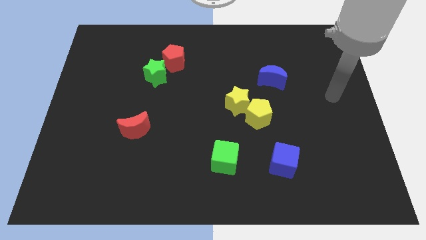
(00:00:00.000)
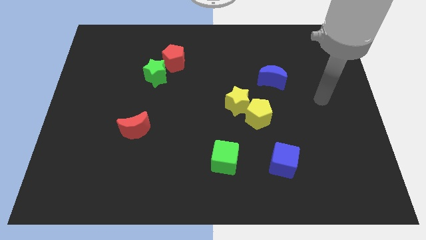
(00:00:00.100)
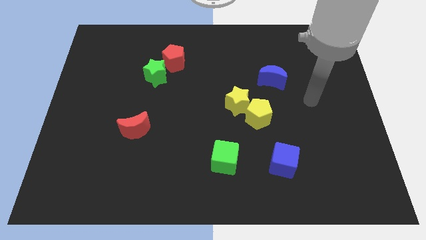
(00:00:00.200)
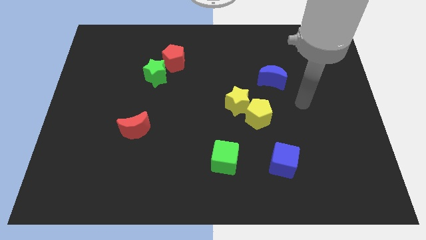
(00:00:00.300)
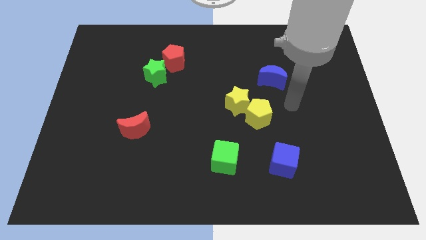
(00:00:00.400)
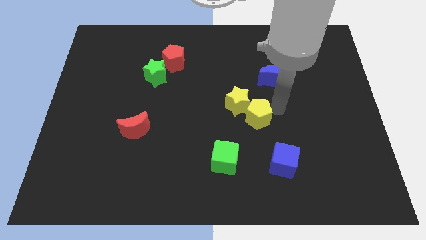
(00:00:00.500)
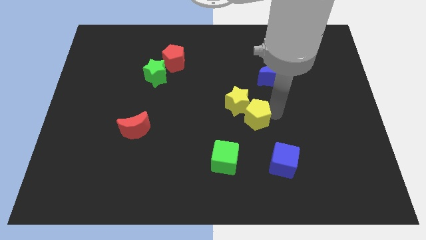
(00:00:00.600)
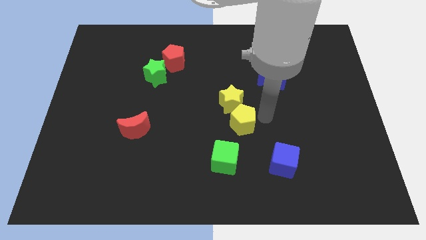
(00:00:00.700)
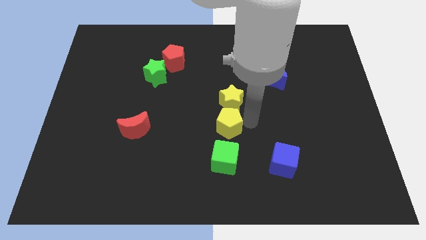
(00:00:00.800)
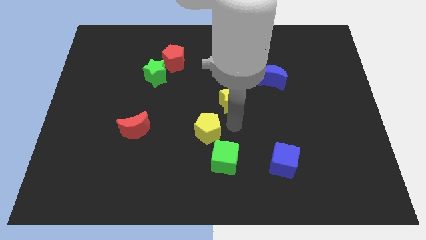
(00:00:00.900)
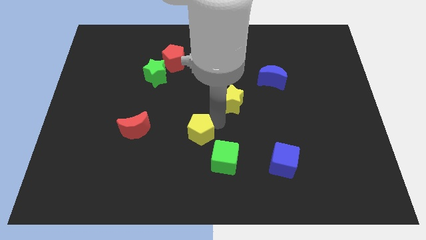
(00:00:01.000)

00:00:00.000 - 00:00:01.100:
separate the yellow star from the yellow pentagon

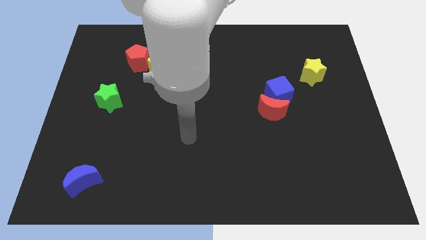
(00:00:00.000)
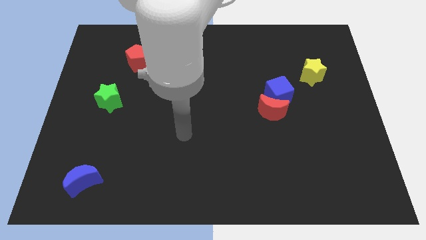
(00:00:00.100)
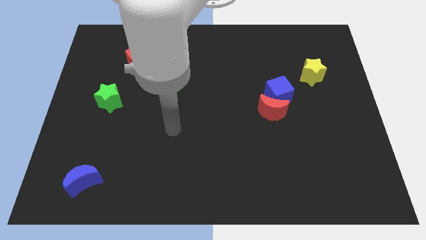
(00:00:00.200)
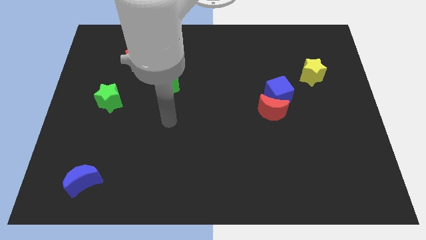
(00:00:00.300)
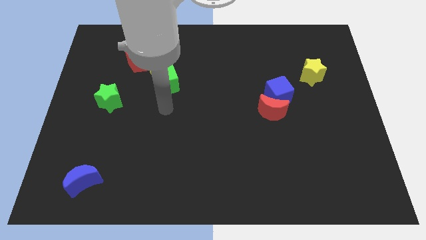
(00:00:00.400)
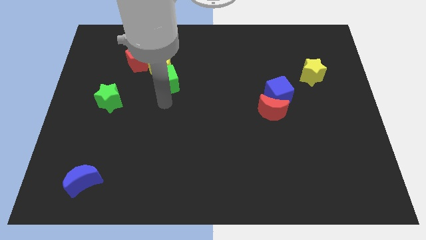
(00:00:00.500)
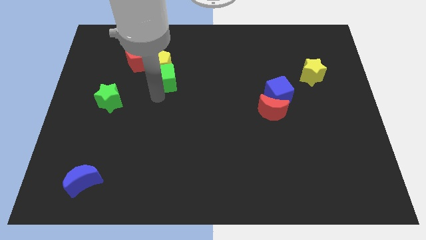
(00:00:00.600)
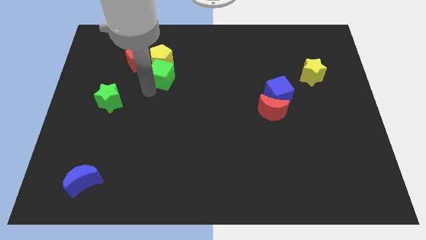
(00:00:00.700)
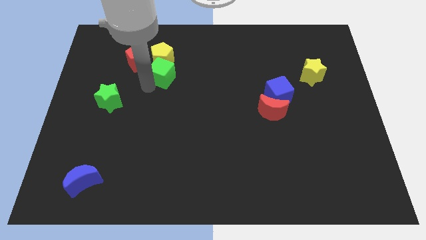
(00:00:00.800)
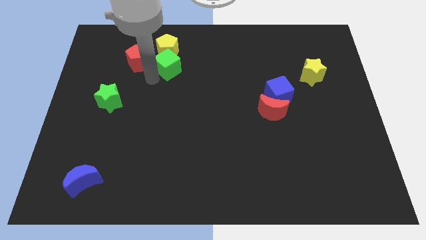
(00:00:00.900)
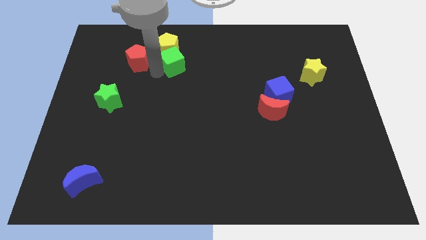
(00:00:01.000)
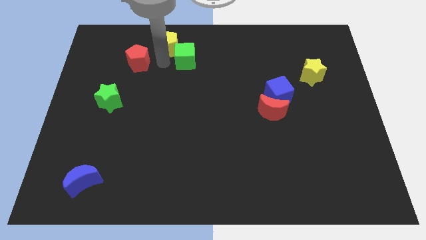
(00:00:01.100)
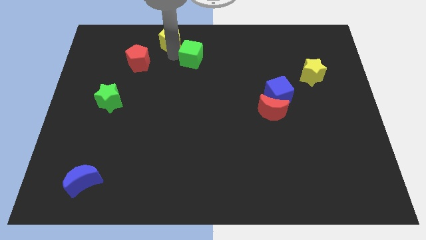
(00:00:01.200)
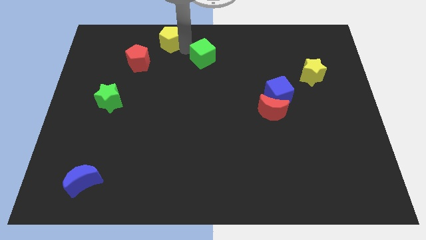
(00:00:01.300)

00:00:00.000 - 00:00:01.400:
separate the green cube from the yellow pentagon

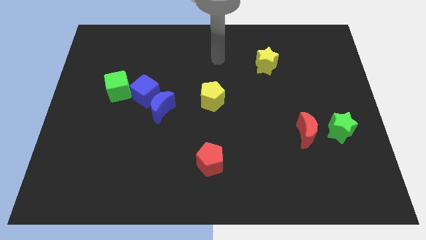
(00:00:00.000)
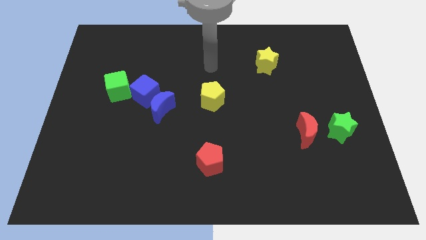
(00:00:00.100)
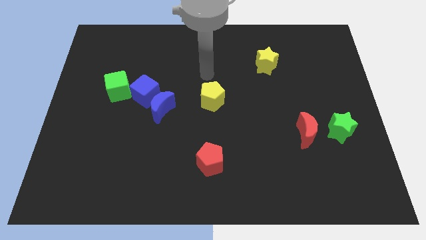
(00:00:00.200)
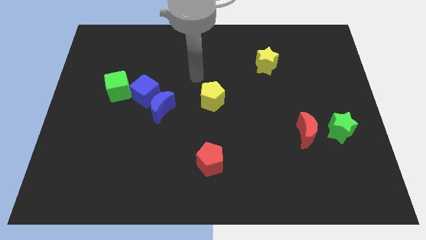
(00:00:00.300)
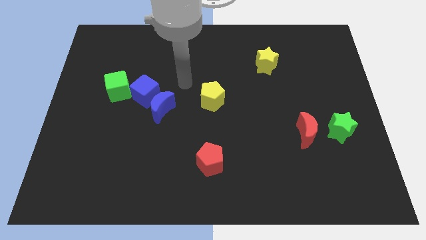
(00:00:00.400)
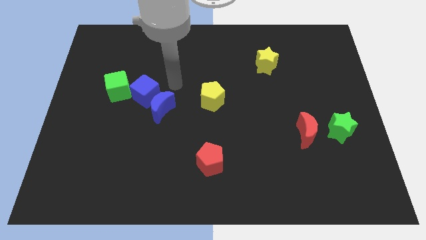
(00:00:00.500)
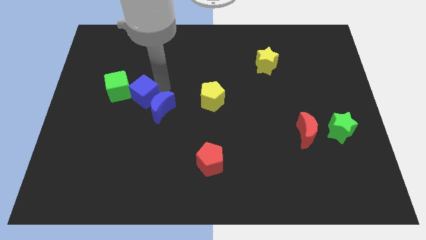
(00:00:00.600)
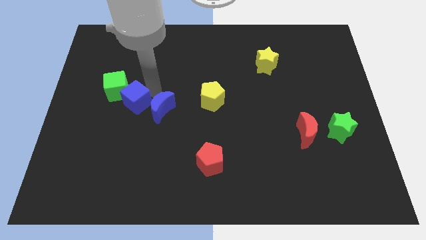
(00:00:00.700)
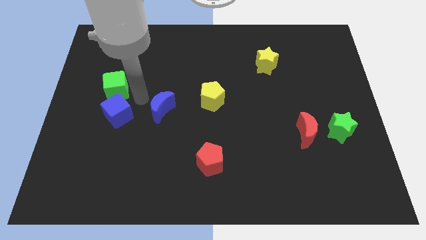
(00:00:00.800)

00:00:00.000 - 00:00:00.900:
move the blue moon away from the blue cube

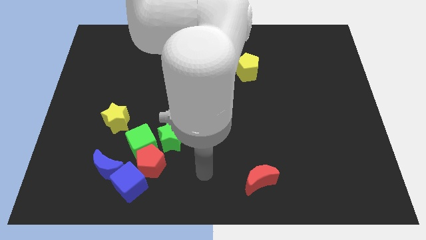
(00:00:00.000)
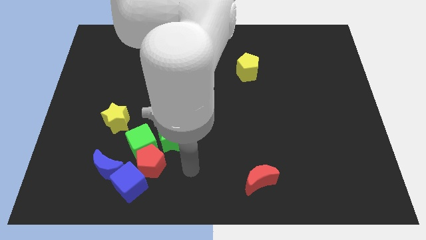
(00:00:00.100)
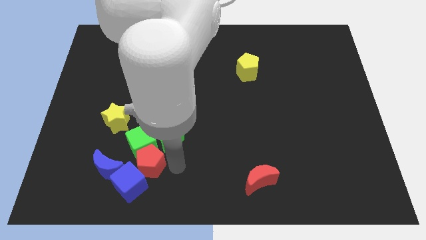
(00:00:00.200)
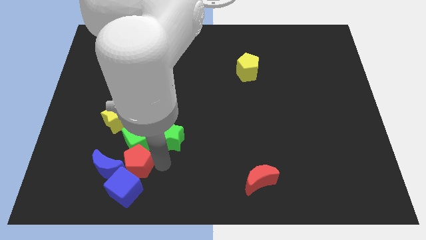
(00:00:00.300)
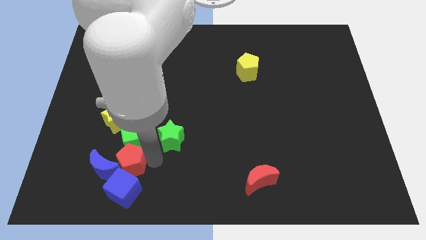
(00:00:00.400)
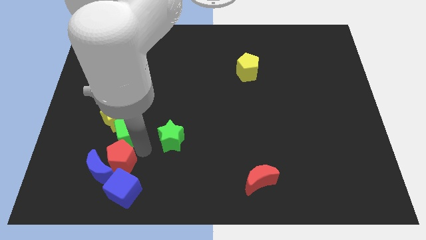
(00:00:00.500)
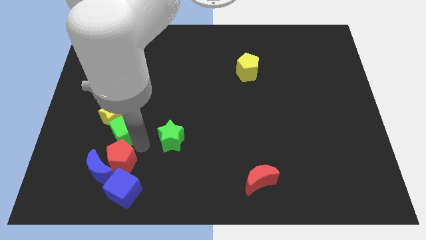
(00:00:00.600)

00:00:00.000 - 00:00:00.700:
separate the green star from the green cube and red pentagon

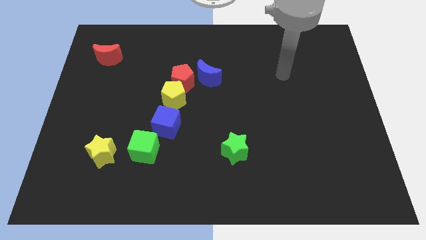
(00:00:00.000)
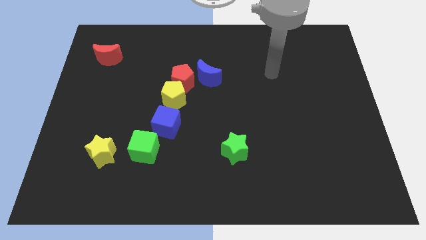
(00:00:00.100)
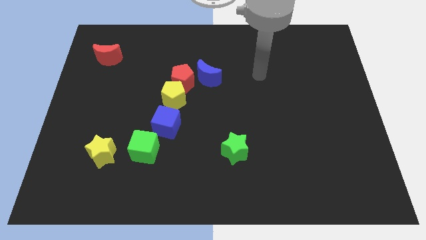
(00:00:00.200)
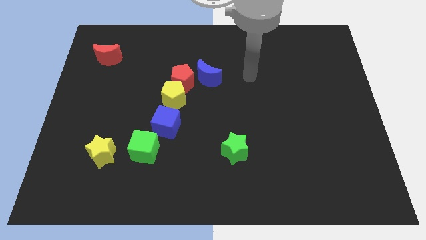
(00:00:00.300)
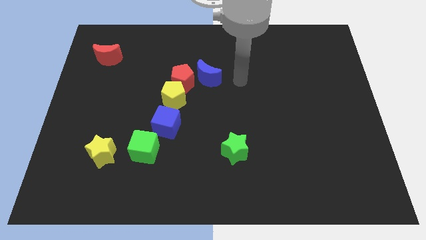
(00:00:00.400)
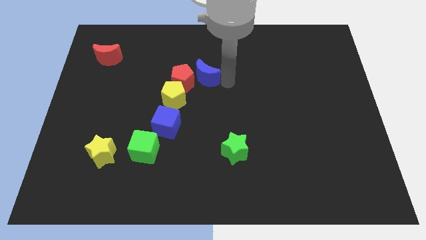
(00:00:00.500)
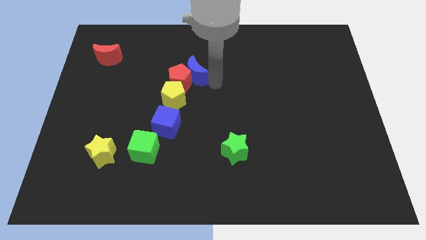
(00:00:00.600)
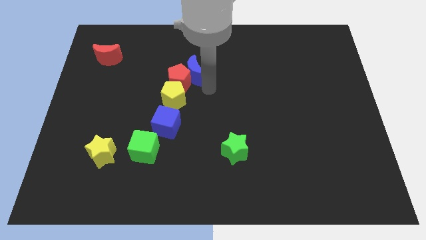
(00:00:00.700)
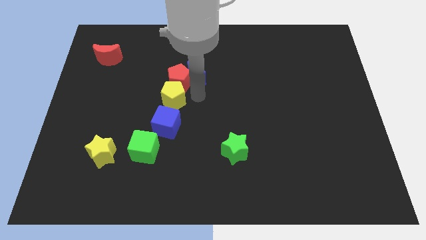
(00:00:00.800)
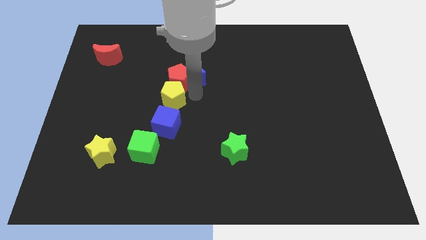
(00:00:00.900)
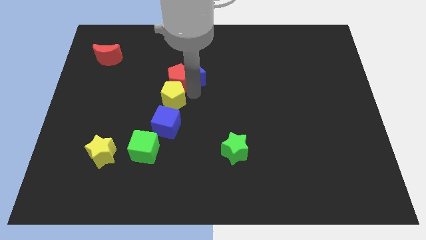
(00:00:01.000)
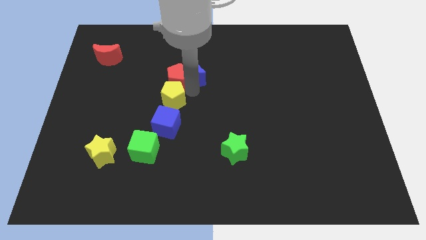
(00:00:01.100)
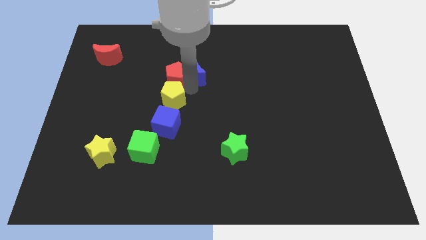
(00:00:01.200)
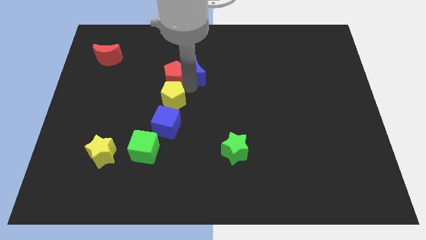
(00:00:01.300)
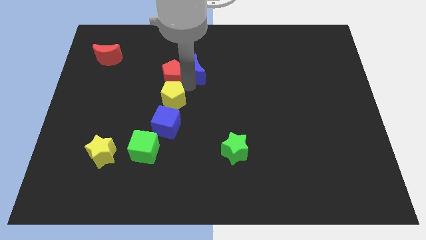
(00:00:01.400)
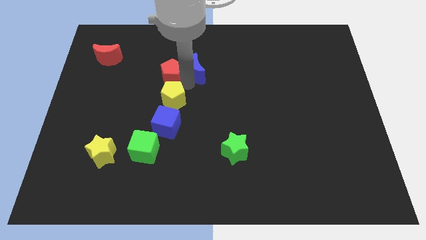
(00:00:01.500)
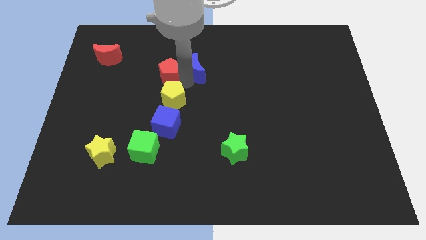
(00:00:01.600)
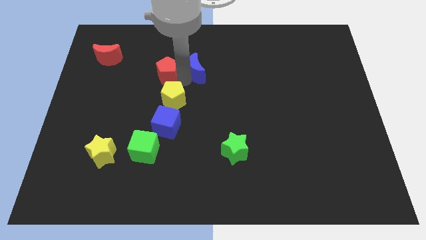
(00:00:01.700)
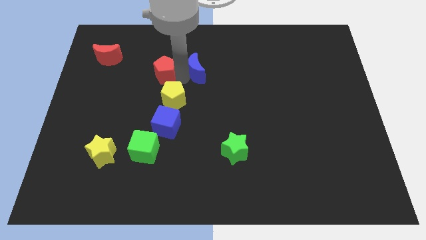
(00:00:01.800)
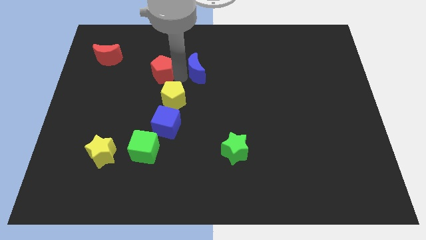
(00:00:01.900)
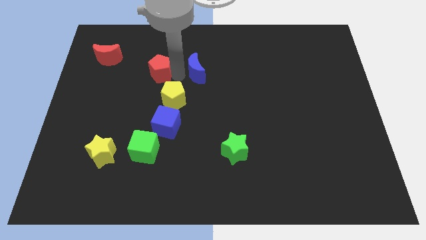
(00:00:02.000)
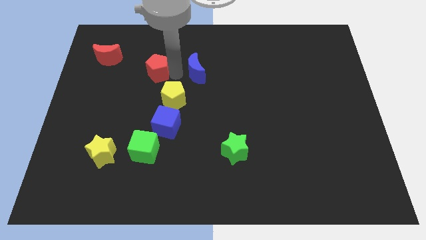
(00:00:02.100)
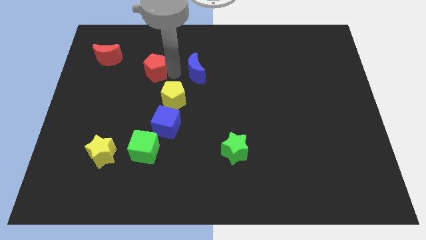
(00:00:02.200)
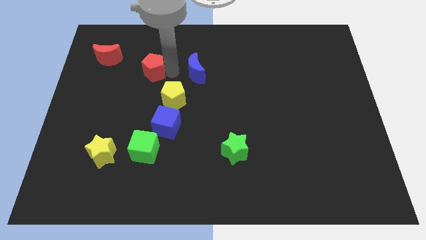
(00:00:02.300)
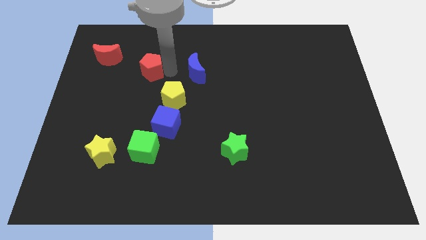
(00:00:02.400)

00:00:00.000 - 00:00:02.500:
move the red pentagon away from the yellow pentagon and blue moon

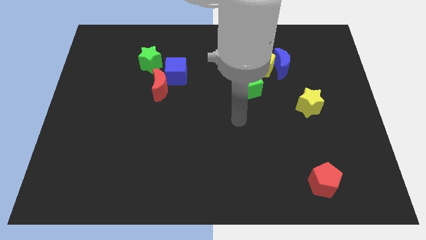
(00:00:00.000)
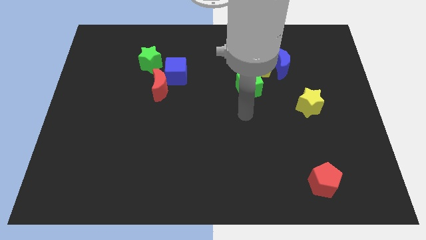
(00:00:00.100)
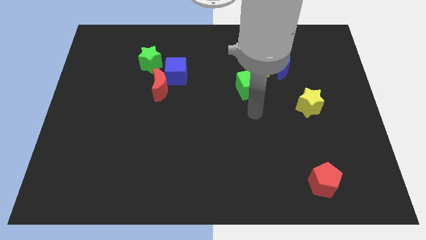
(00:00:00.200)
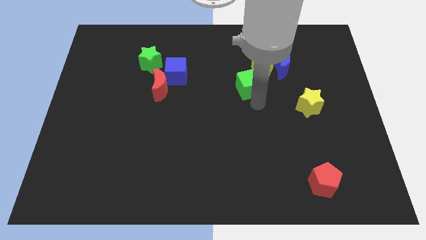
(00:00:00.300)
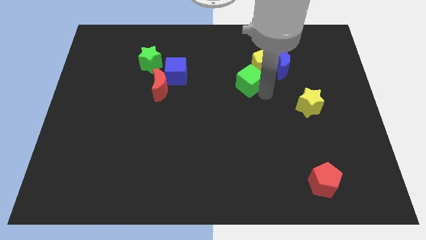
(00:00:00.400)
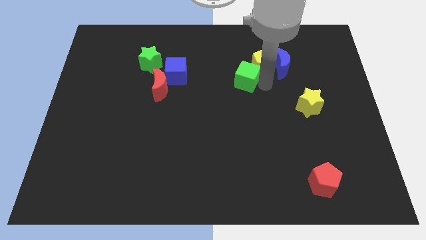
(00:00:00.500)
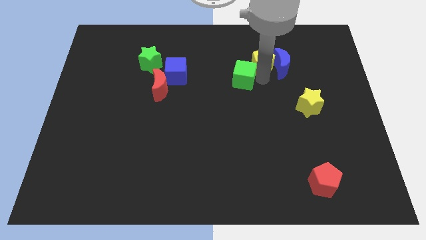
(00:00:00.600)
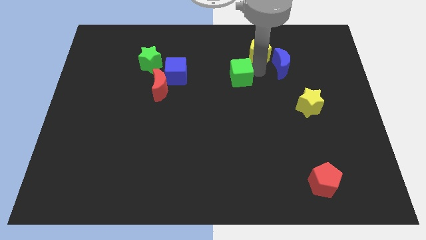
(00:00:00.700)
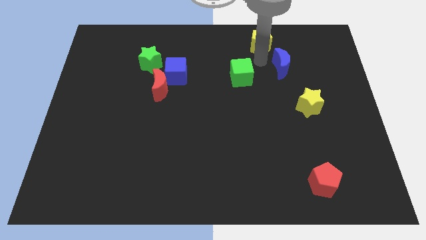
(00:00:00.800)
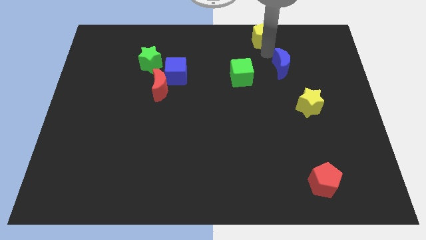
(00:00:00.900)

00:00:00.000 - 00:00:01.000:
move the blue moon away from the yellow pentagon

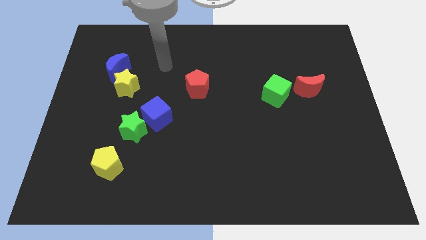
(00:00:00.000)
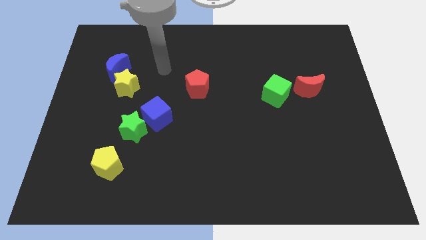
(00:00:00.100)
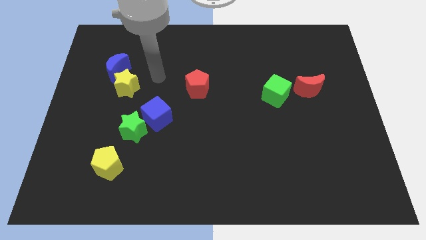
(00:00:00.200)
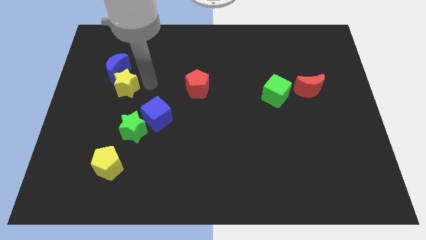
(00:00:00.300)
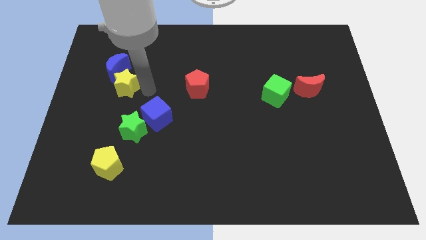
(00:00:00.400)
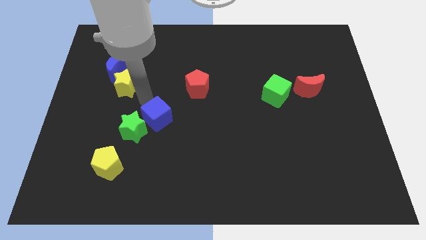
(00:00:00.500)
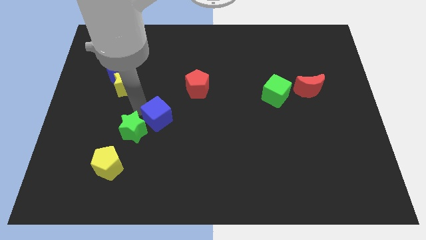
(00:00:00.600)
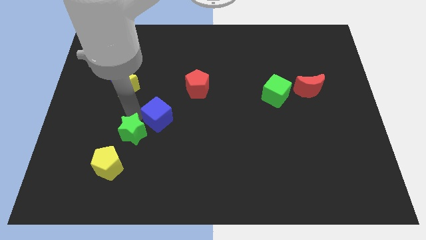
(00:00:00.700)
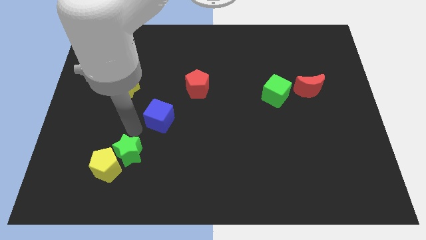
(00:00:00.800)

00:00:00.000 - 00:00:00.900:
pull the blue cube apart from the green star

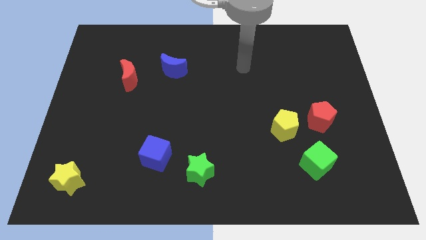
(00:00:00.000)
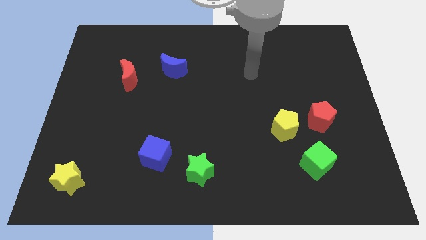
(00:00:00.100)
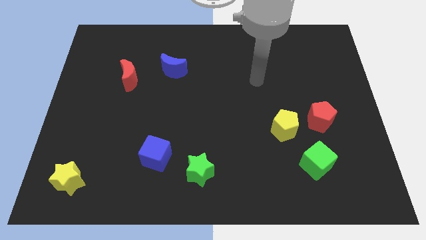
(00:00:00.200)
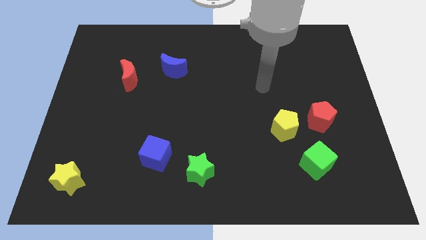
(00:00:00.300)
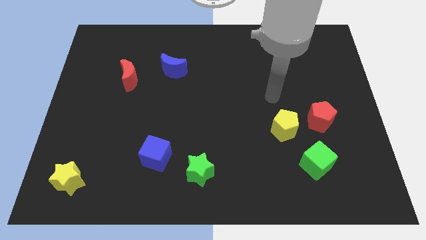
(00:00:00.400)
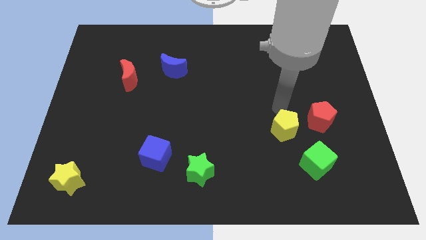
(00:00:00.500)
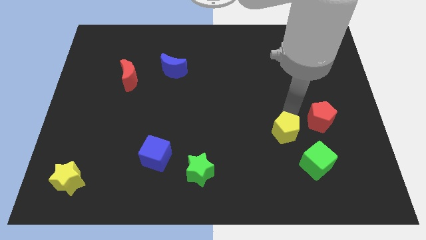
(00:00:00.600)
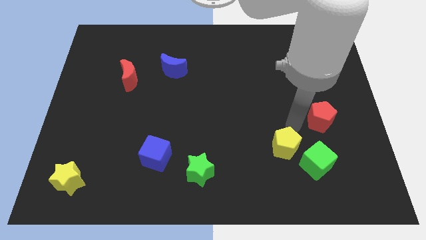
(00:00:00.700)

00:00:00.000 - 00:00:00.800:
pull the red pentagon apart from the yellow pentagon
